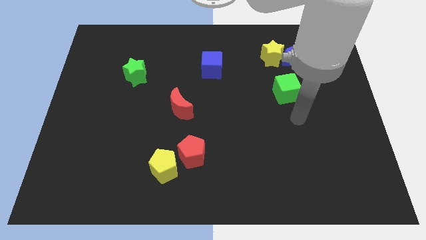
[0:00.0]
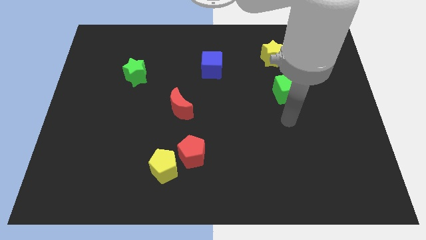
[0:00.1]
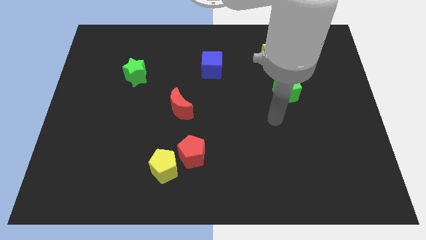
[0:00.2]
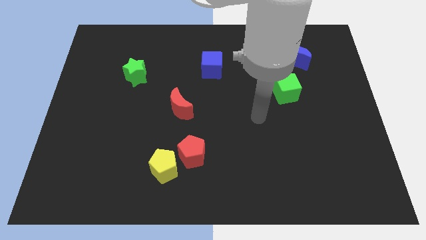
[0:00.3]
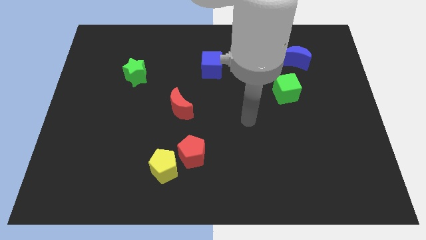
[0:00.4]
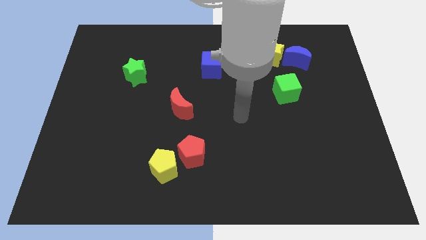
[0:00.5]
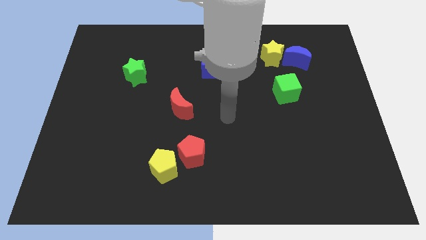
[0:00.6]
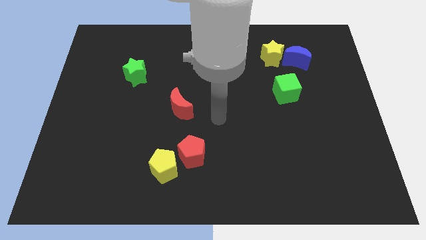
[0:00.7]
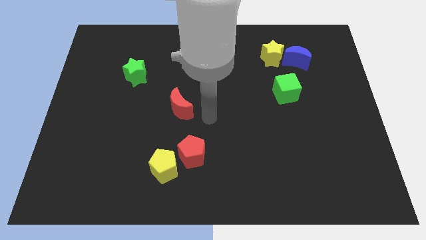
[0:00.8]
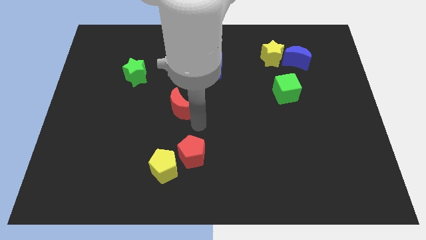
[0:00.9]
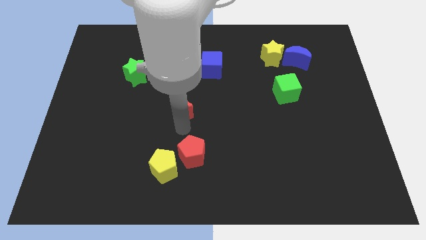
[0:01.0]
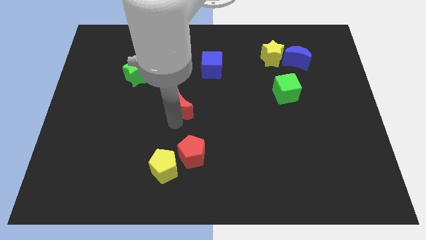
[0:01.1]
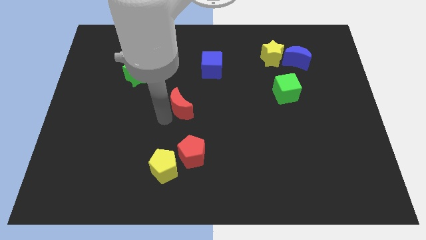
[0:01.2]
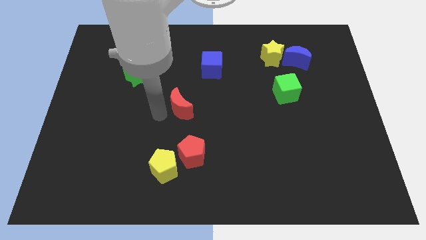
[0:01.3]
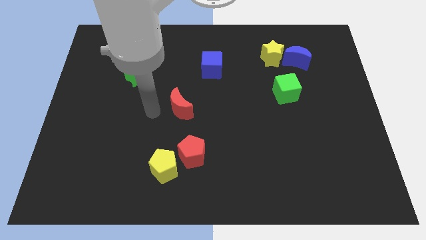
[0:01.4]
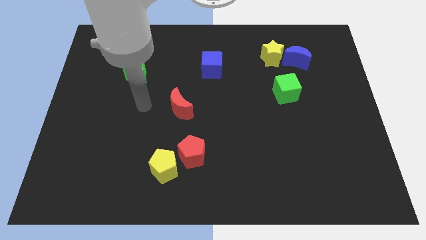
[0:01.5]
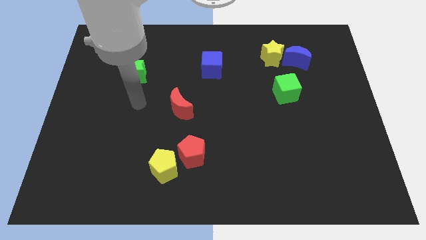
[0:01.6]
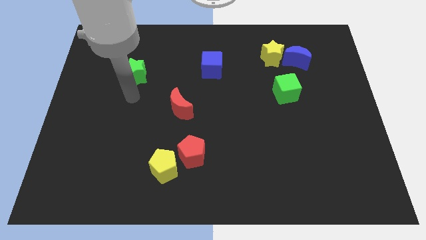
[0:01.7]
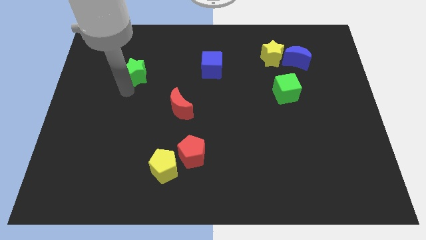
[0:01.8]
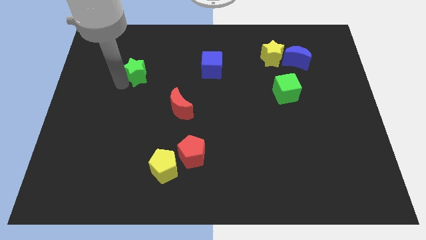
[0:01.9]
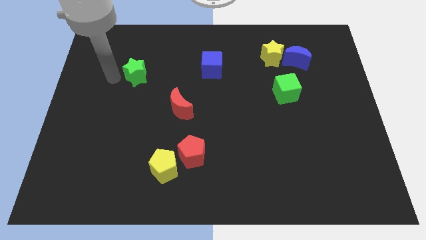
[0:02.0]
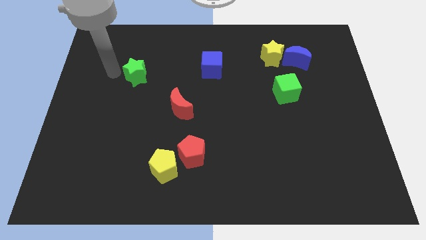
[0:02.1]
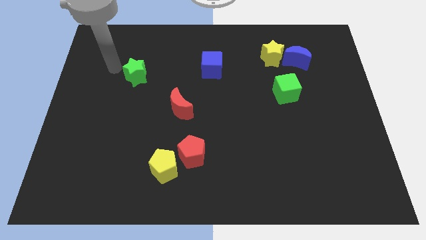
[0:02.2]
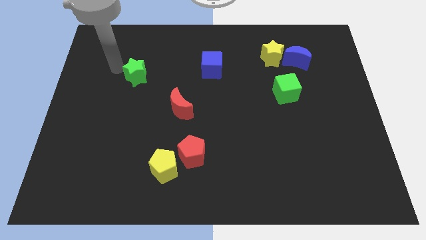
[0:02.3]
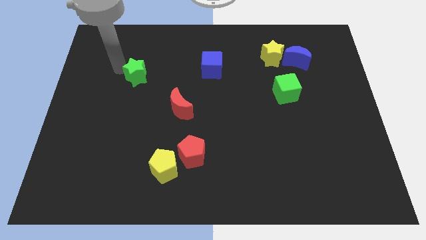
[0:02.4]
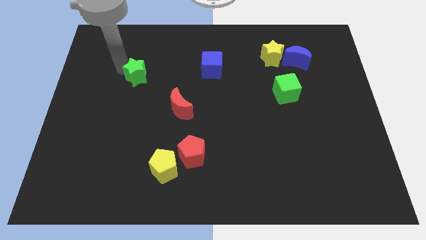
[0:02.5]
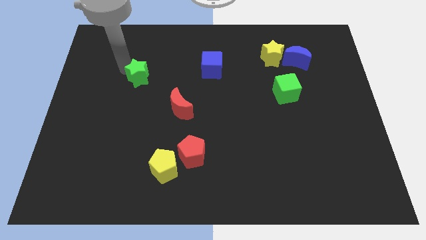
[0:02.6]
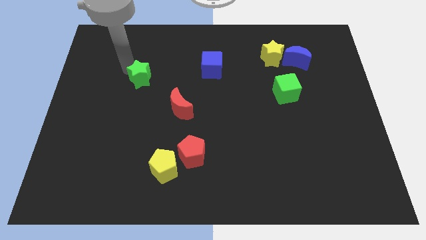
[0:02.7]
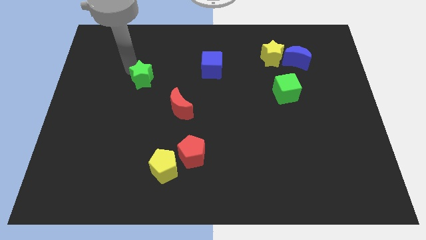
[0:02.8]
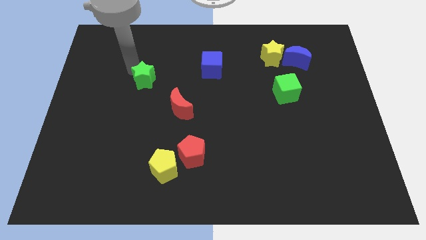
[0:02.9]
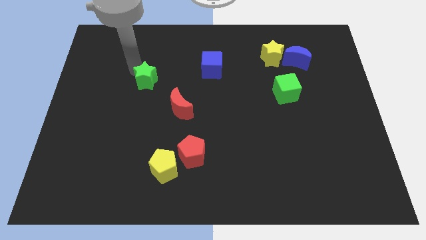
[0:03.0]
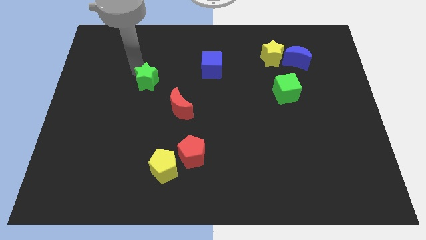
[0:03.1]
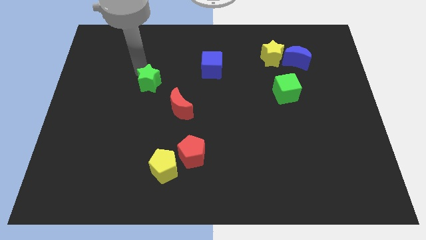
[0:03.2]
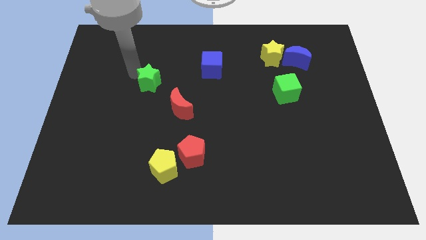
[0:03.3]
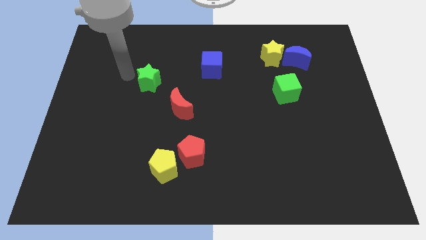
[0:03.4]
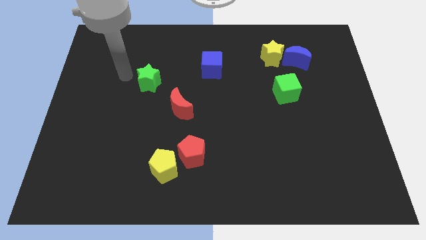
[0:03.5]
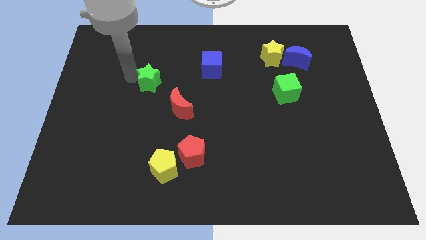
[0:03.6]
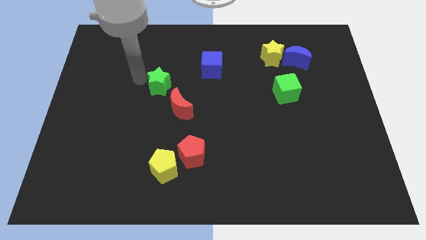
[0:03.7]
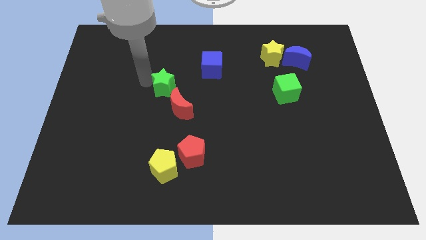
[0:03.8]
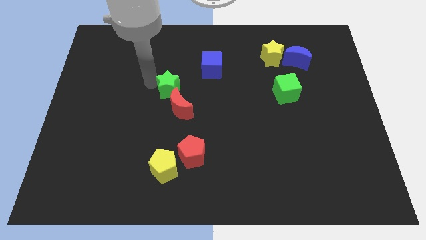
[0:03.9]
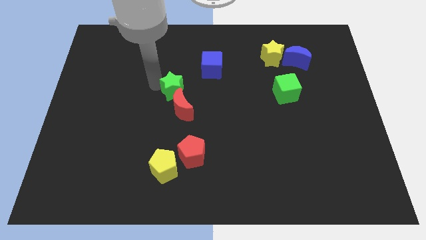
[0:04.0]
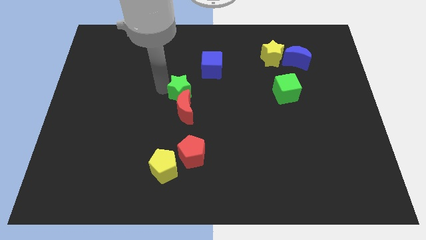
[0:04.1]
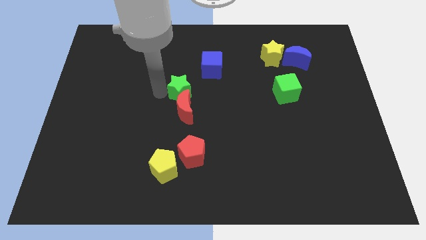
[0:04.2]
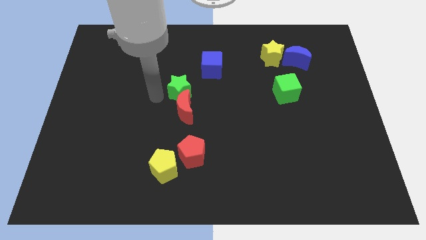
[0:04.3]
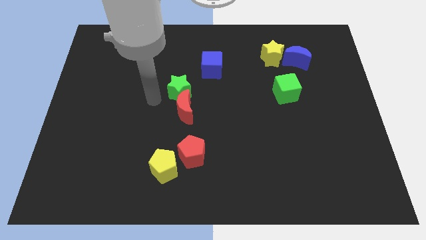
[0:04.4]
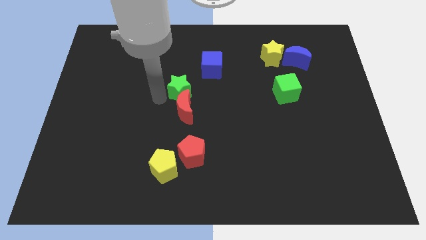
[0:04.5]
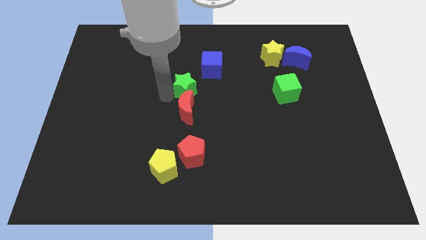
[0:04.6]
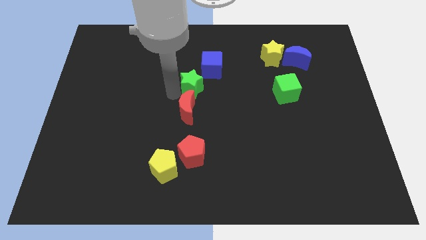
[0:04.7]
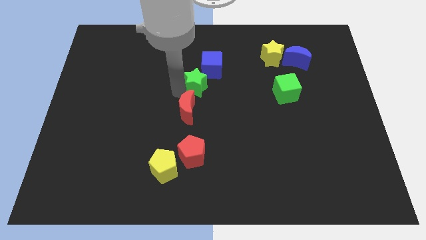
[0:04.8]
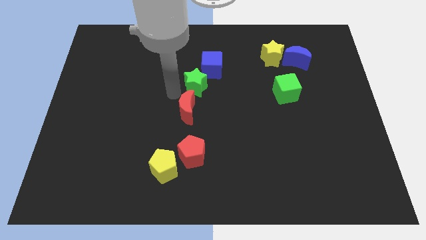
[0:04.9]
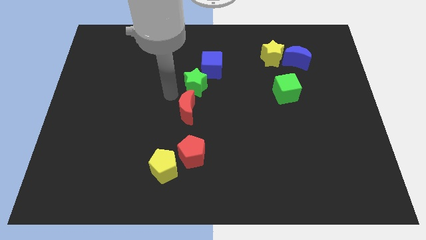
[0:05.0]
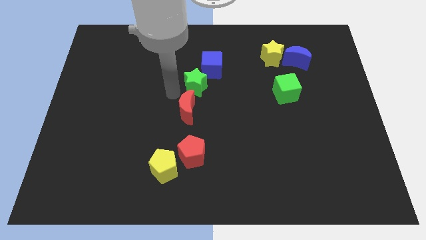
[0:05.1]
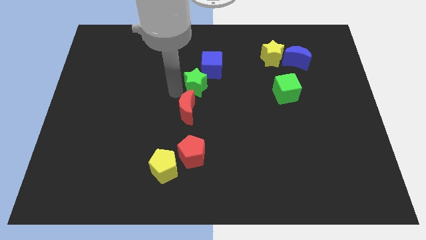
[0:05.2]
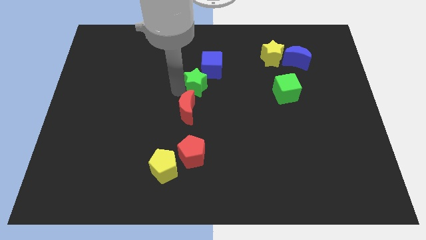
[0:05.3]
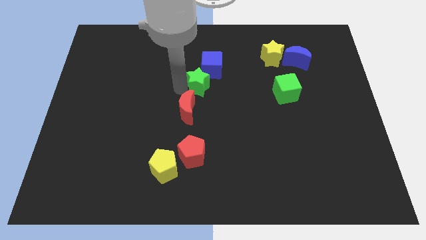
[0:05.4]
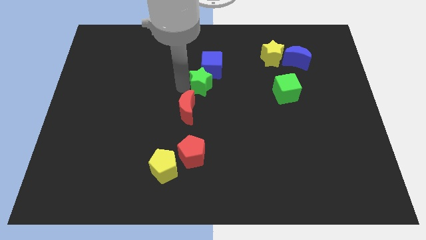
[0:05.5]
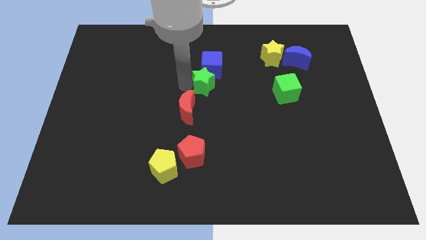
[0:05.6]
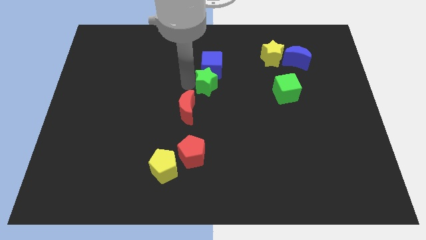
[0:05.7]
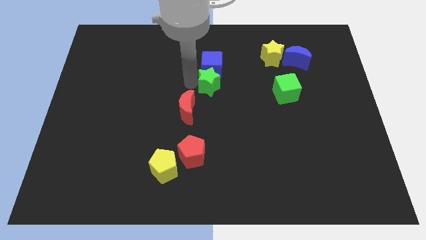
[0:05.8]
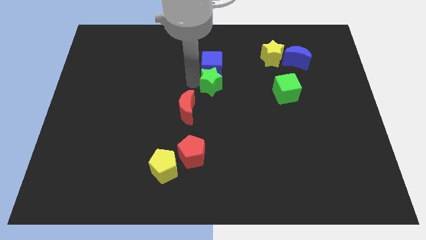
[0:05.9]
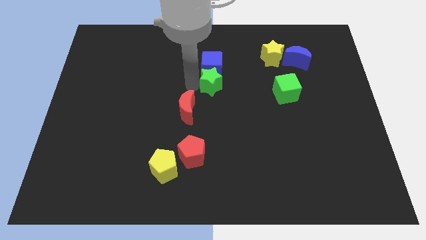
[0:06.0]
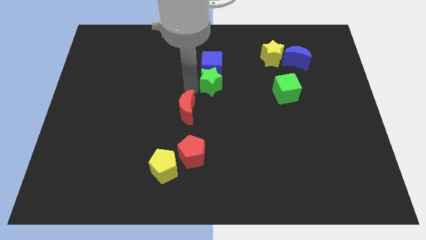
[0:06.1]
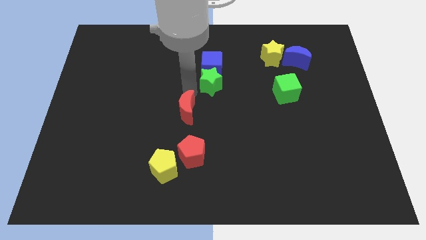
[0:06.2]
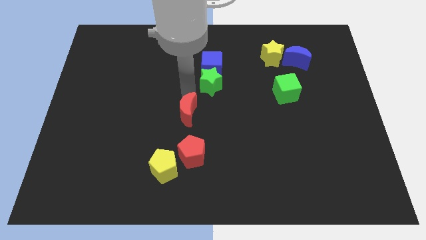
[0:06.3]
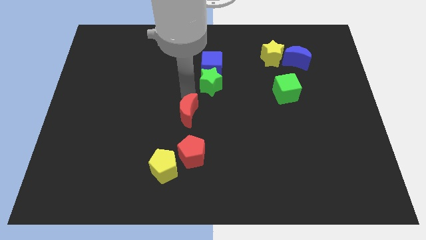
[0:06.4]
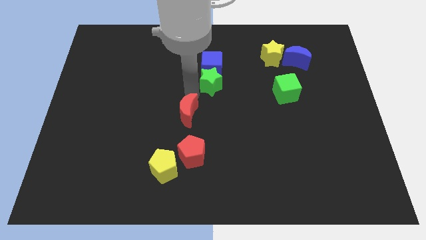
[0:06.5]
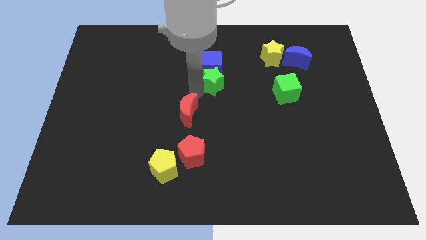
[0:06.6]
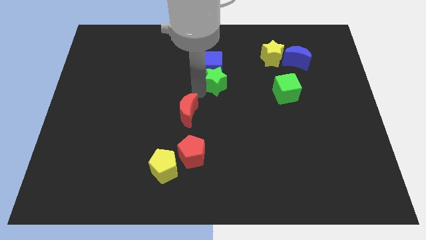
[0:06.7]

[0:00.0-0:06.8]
slide the green star to the right

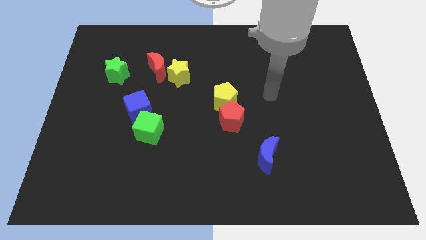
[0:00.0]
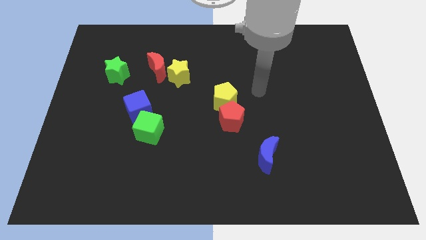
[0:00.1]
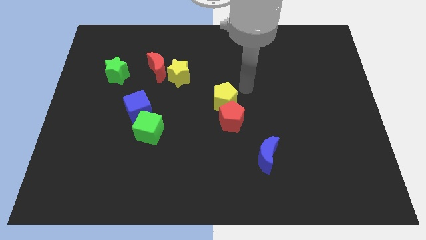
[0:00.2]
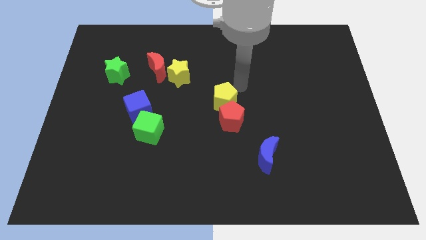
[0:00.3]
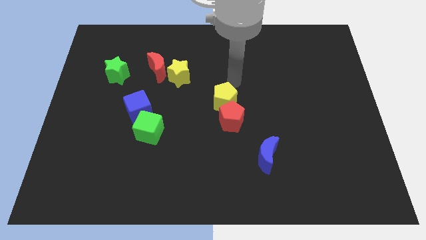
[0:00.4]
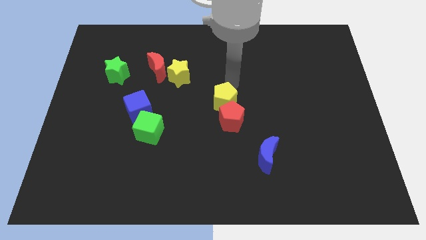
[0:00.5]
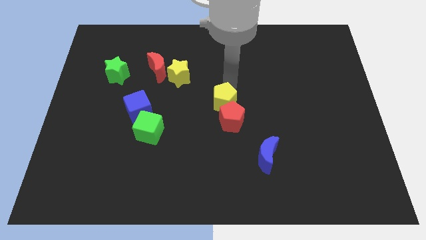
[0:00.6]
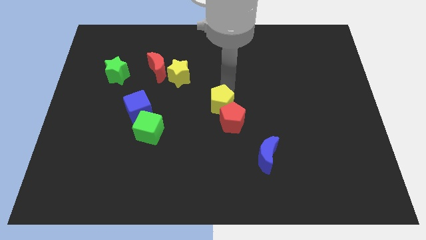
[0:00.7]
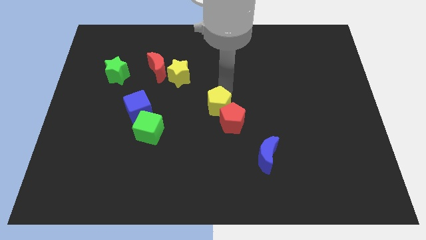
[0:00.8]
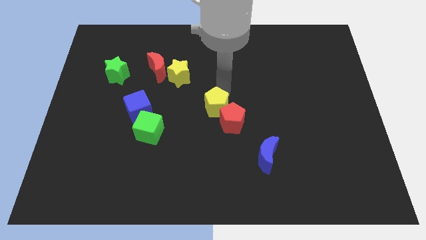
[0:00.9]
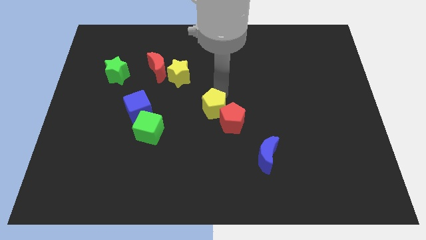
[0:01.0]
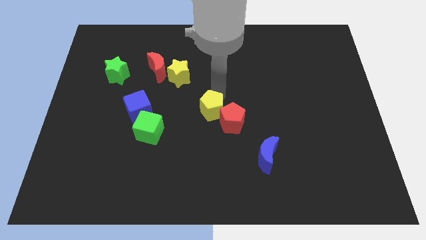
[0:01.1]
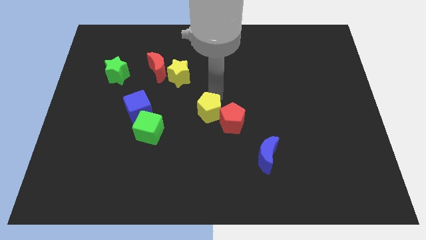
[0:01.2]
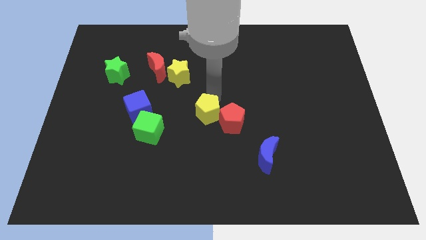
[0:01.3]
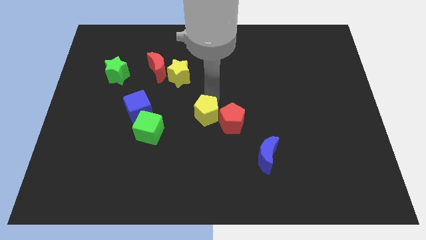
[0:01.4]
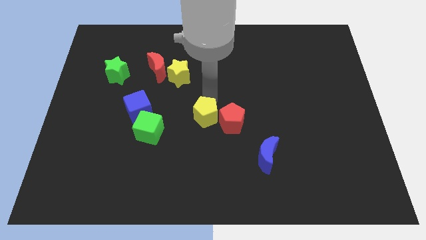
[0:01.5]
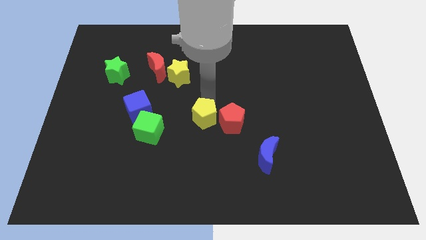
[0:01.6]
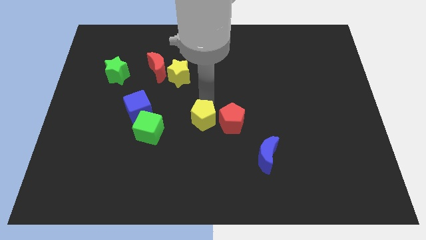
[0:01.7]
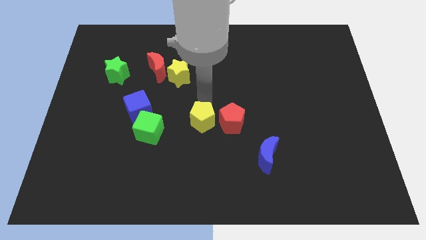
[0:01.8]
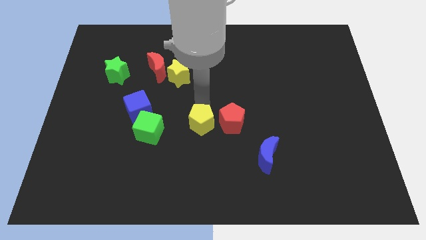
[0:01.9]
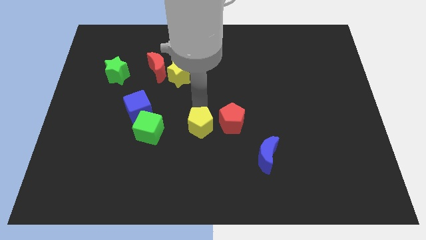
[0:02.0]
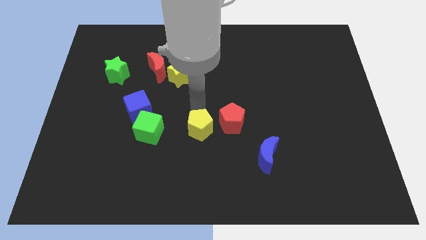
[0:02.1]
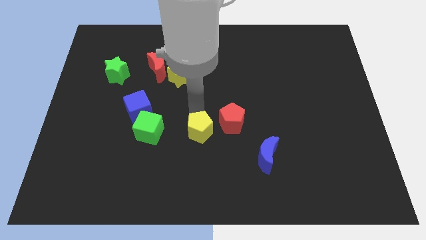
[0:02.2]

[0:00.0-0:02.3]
slightly push the yellow pentagon downwards
